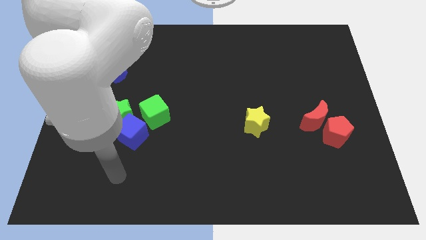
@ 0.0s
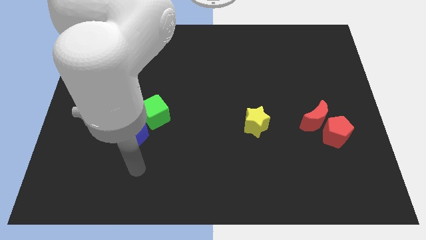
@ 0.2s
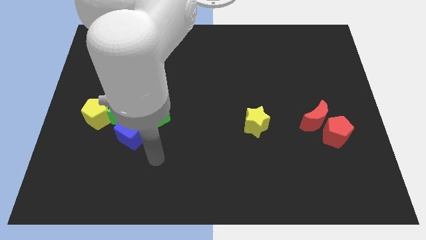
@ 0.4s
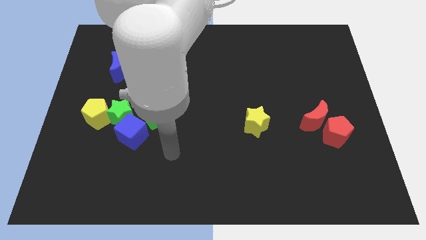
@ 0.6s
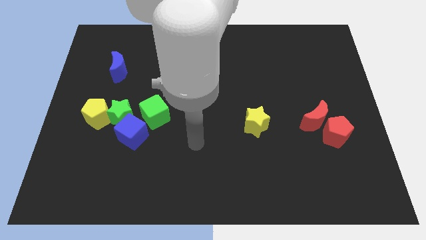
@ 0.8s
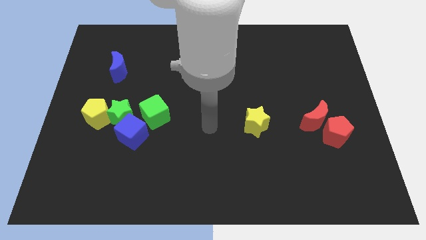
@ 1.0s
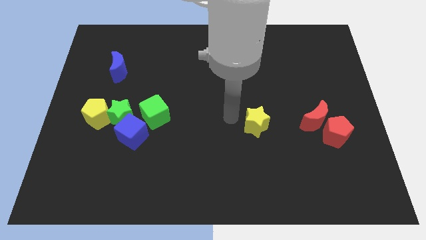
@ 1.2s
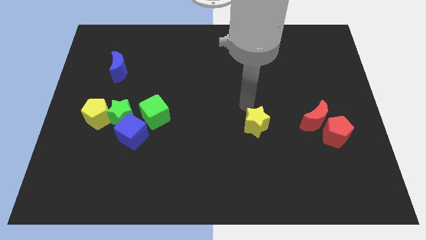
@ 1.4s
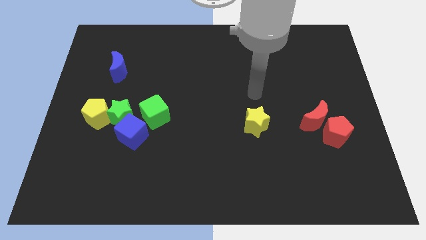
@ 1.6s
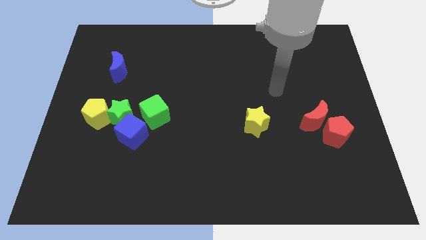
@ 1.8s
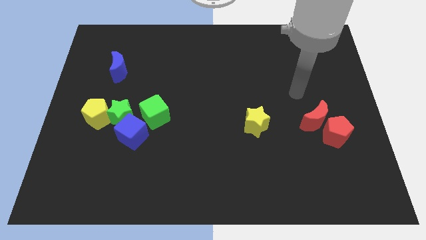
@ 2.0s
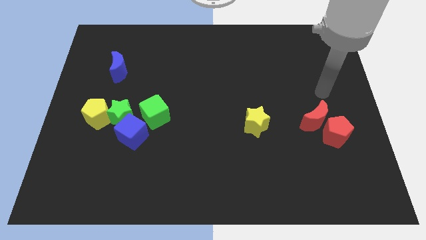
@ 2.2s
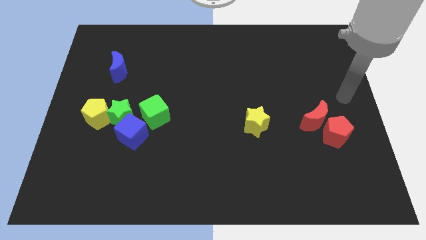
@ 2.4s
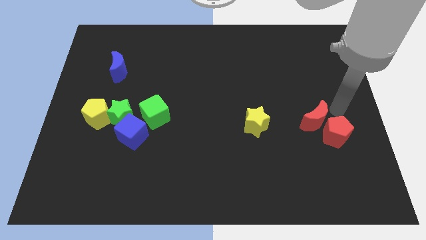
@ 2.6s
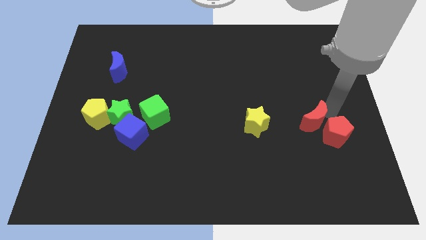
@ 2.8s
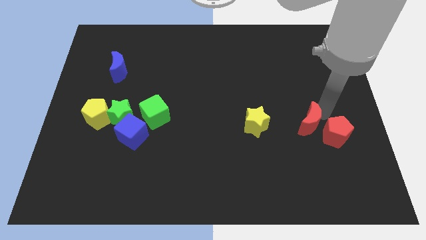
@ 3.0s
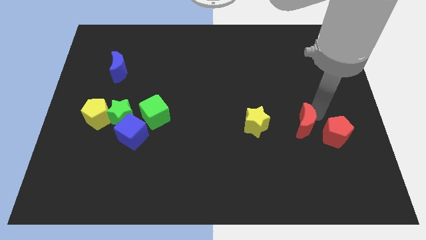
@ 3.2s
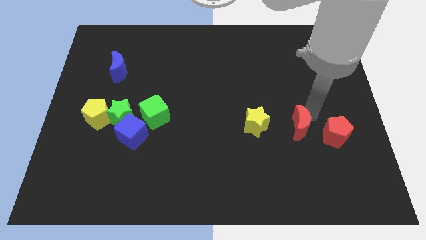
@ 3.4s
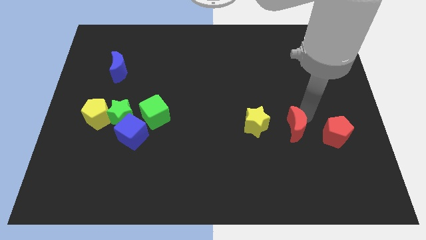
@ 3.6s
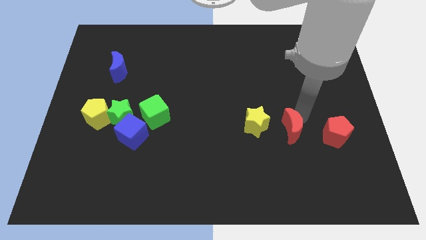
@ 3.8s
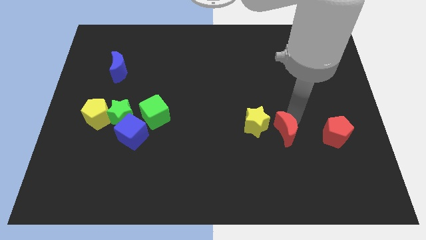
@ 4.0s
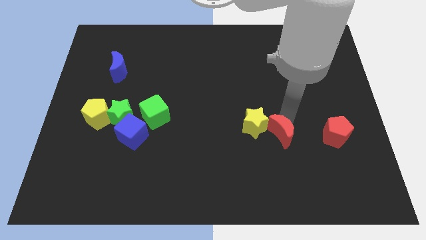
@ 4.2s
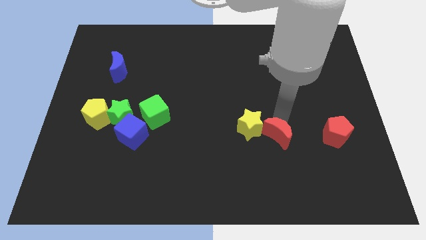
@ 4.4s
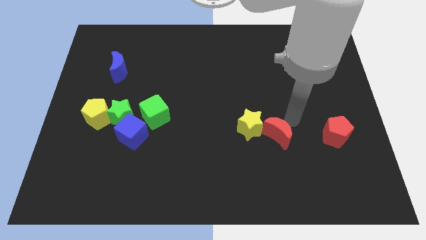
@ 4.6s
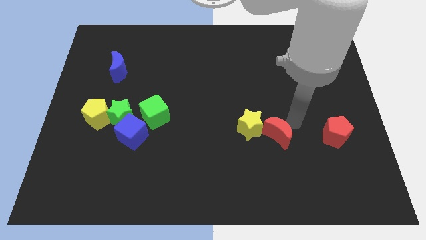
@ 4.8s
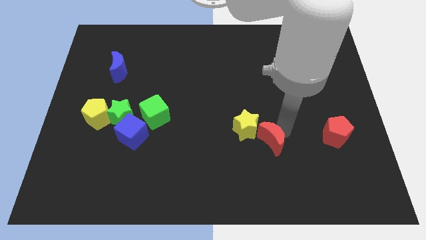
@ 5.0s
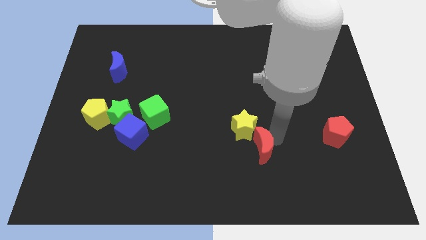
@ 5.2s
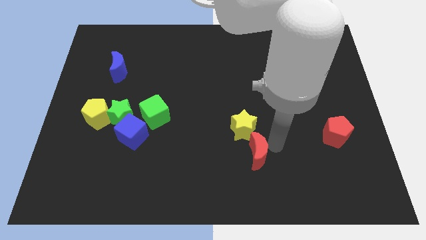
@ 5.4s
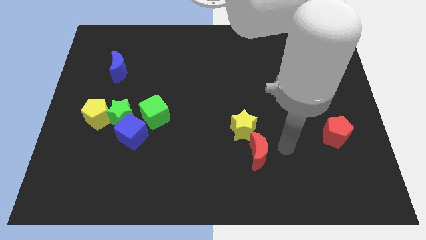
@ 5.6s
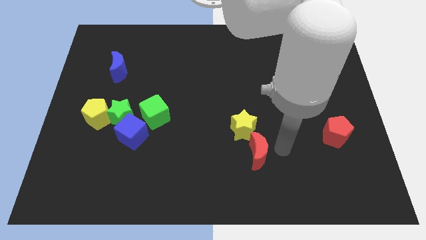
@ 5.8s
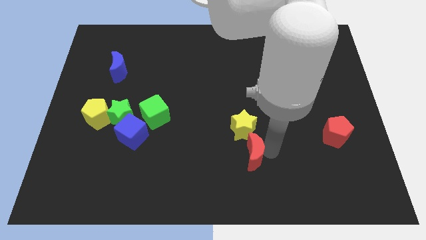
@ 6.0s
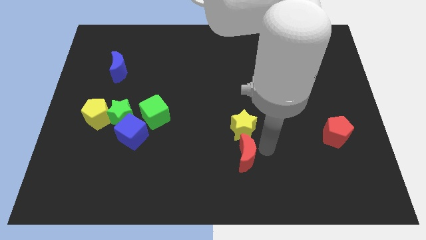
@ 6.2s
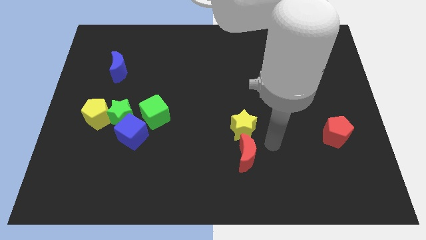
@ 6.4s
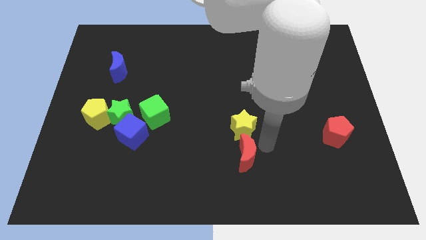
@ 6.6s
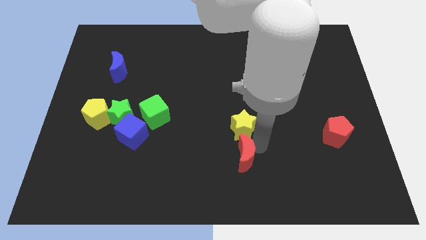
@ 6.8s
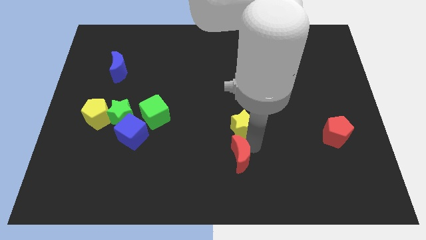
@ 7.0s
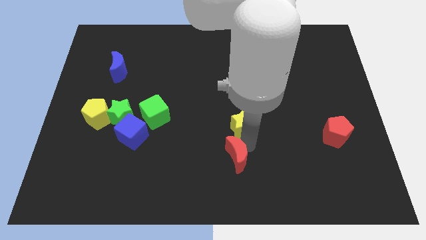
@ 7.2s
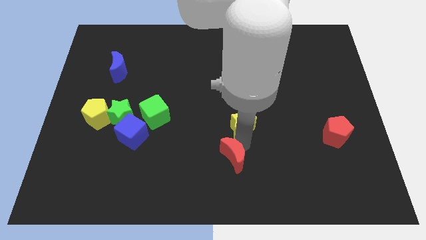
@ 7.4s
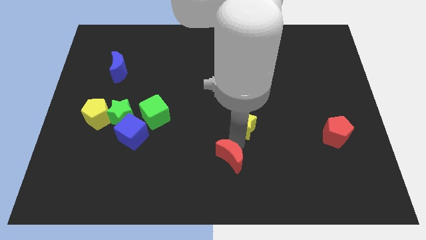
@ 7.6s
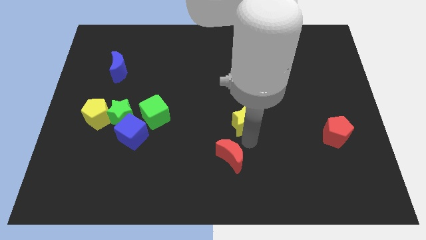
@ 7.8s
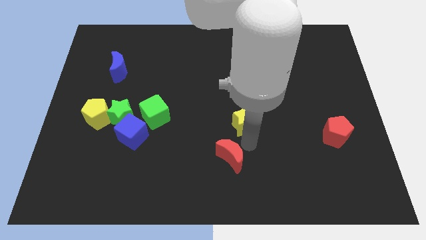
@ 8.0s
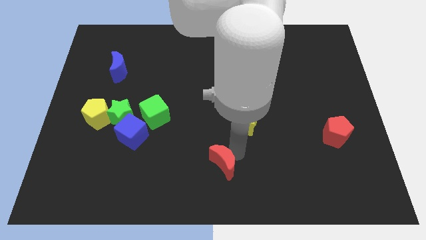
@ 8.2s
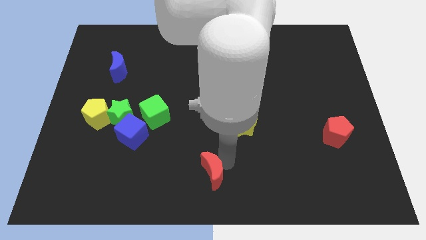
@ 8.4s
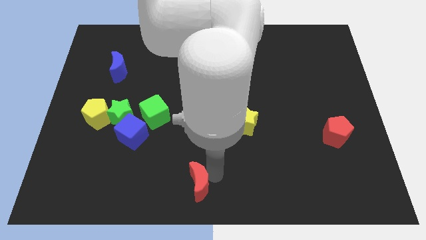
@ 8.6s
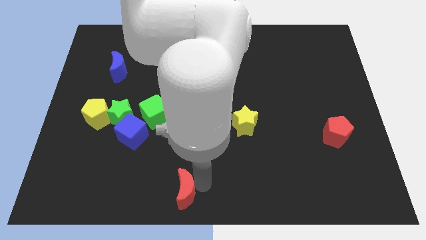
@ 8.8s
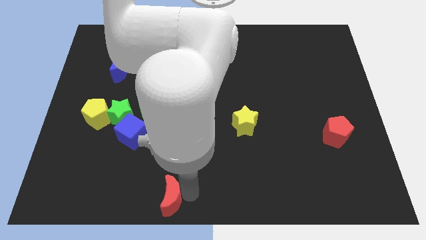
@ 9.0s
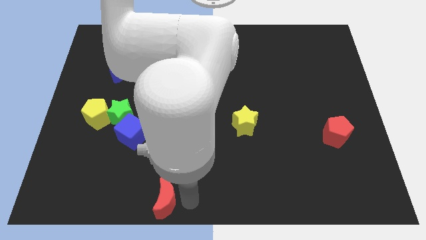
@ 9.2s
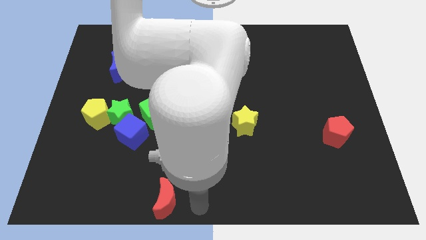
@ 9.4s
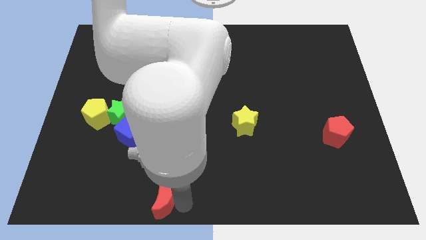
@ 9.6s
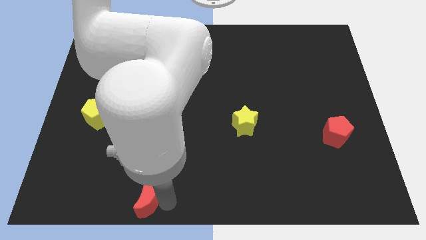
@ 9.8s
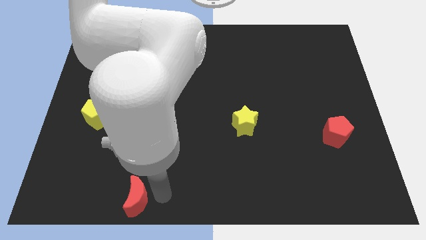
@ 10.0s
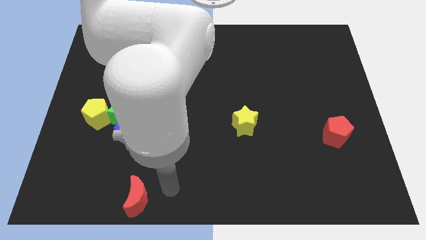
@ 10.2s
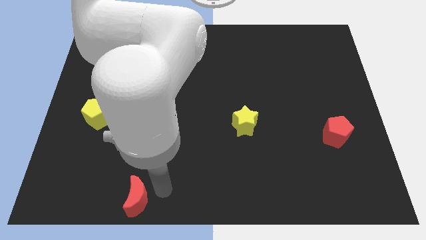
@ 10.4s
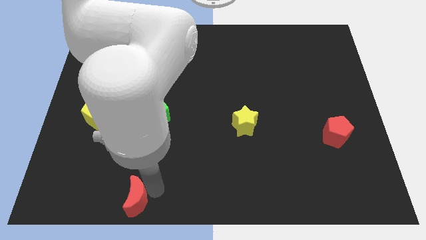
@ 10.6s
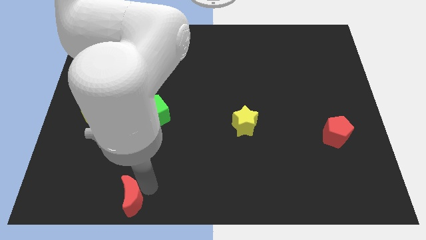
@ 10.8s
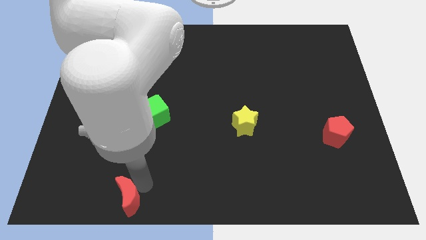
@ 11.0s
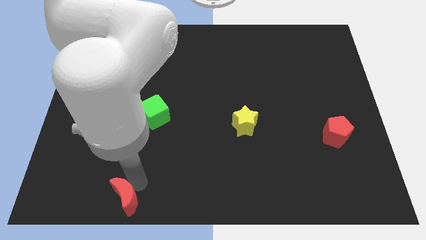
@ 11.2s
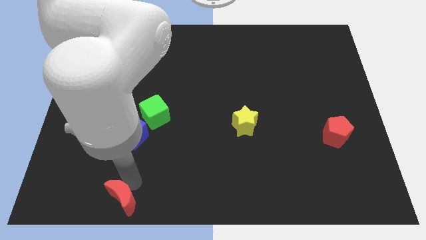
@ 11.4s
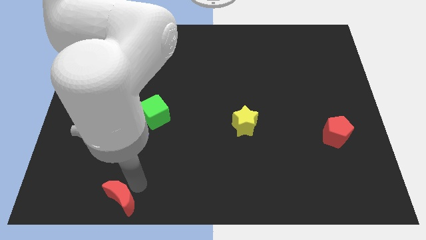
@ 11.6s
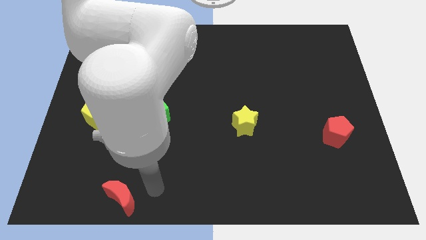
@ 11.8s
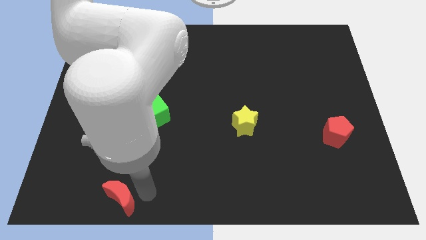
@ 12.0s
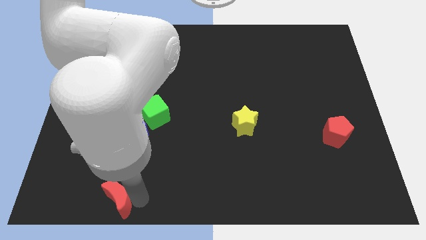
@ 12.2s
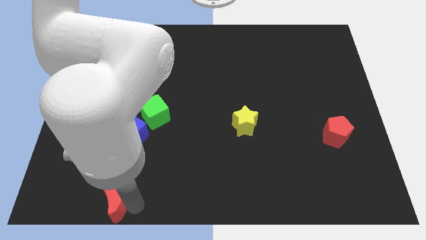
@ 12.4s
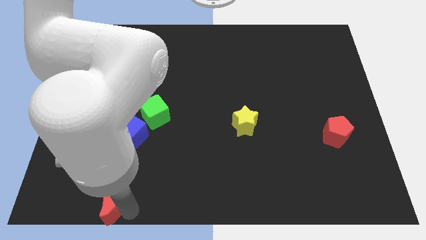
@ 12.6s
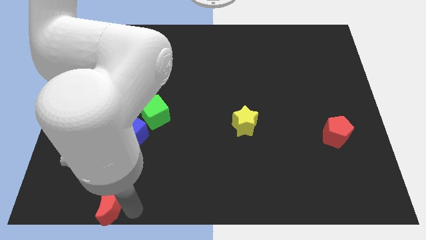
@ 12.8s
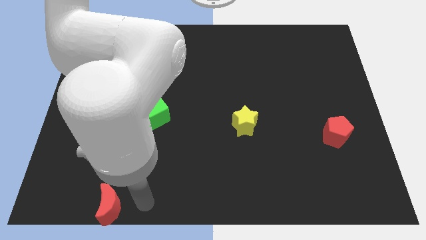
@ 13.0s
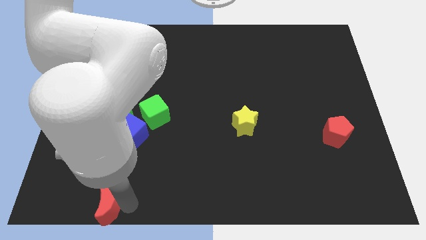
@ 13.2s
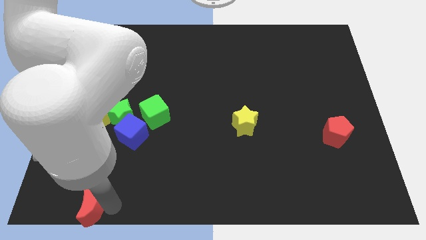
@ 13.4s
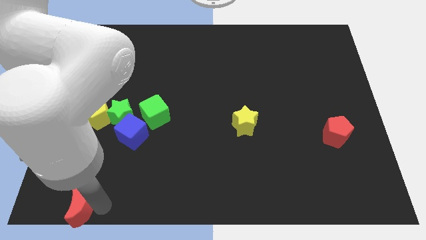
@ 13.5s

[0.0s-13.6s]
move the red moon to the bottom left of the board
